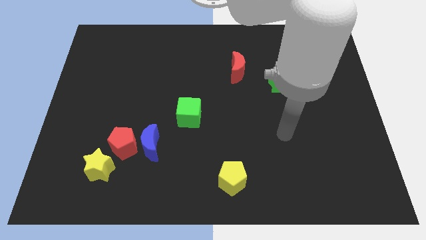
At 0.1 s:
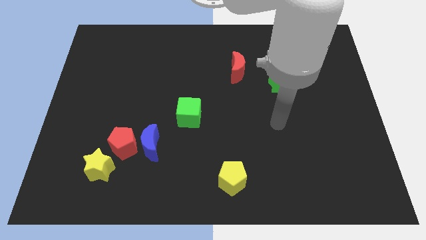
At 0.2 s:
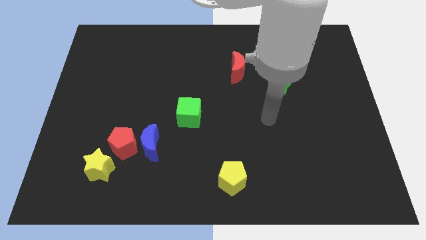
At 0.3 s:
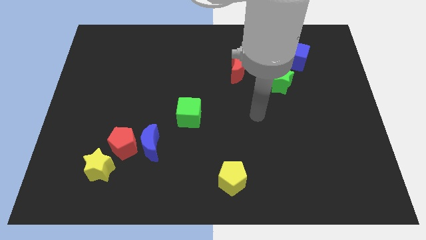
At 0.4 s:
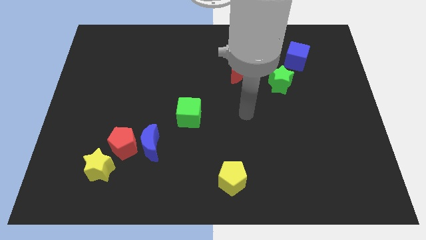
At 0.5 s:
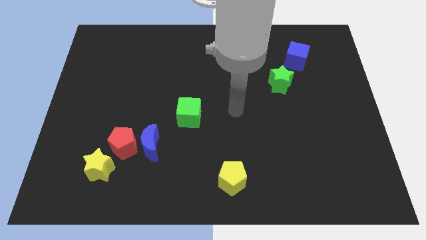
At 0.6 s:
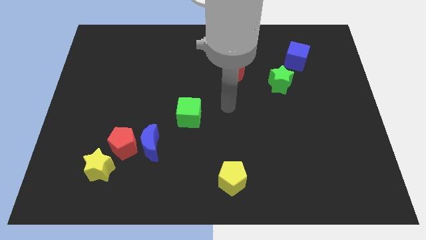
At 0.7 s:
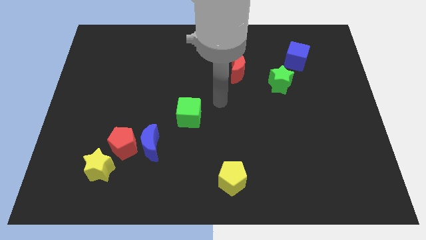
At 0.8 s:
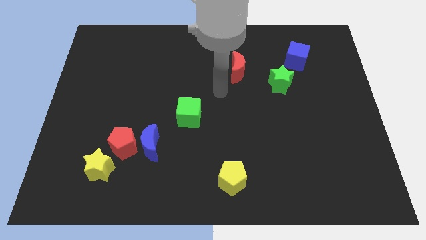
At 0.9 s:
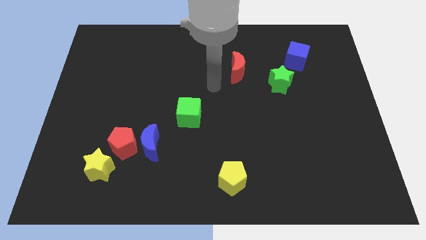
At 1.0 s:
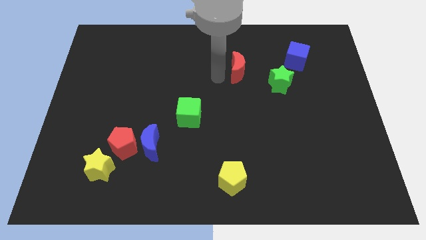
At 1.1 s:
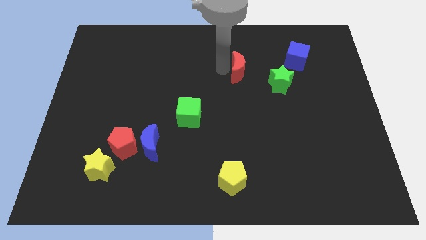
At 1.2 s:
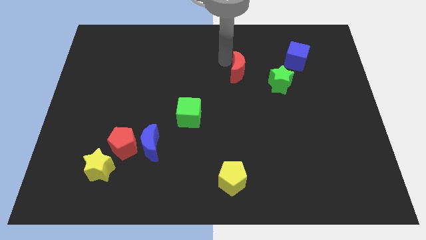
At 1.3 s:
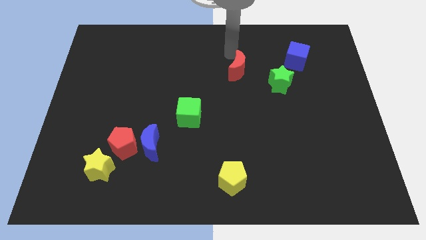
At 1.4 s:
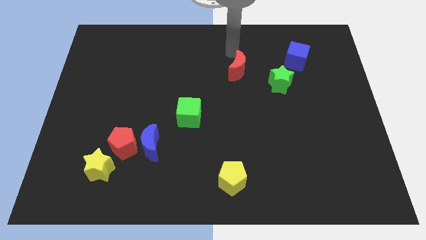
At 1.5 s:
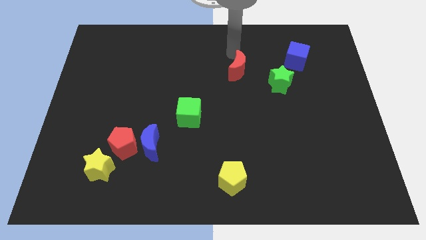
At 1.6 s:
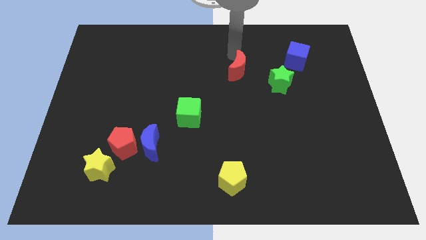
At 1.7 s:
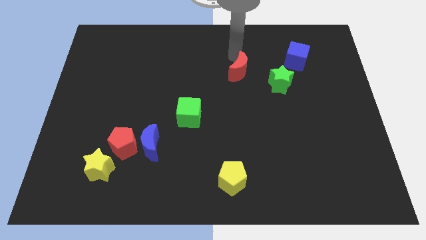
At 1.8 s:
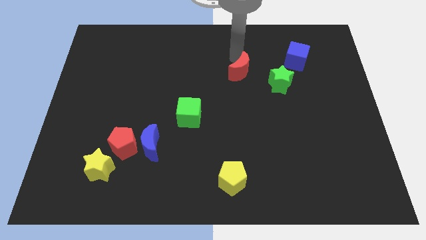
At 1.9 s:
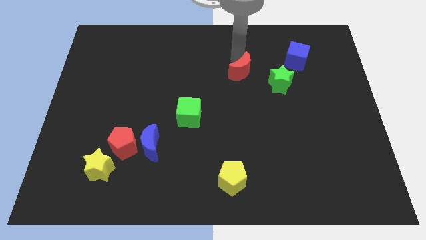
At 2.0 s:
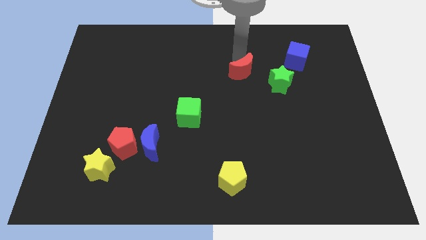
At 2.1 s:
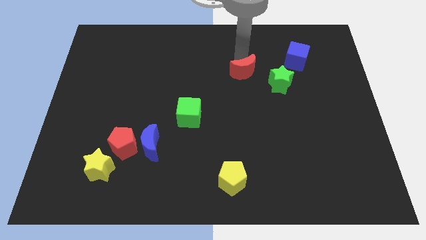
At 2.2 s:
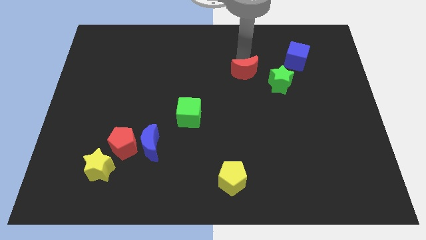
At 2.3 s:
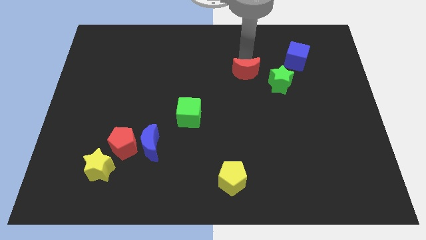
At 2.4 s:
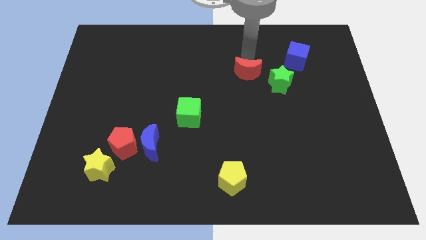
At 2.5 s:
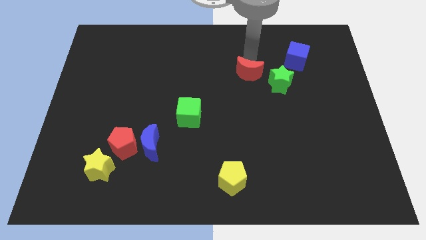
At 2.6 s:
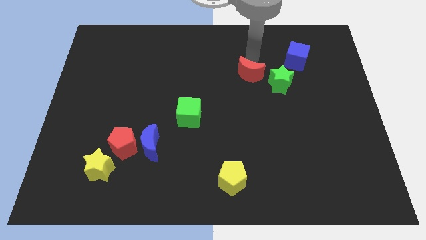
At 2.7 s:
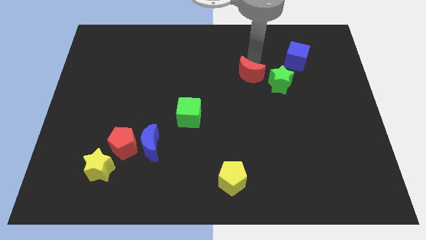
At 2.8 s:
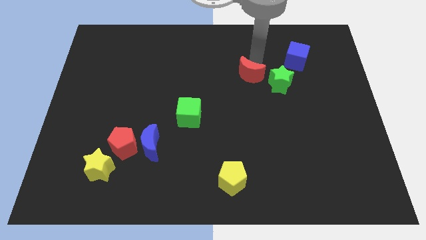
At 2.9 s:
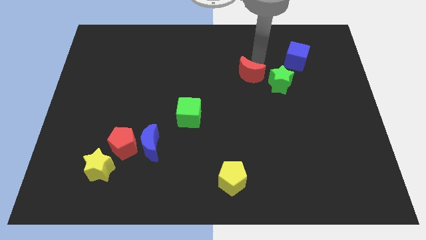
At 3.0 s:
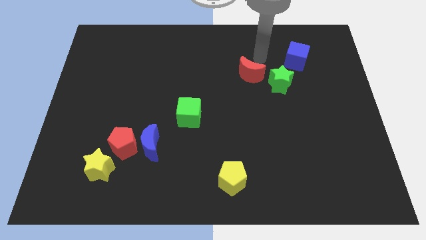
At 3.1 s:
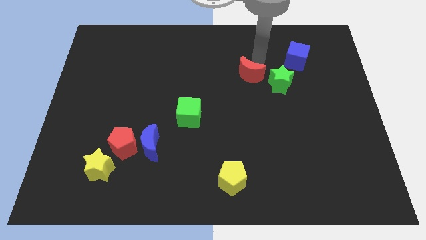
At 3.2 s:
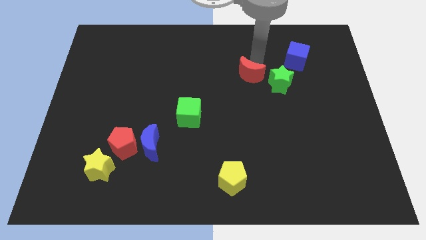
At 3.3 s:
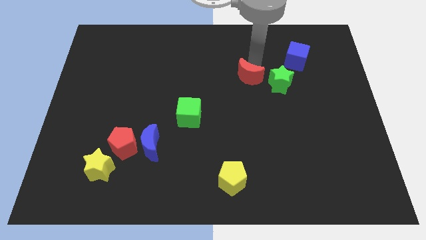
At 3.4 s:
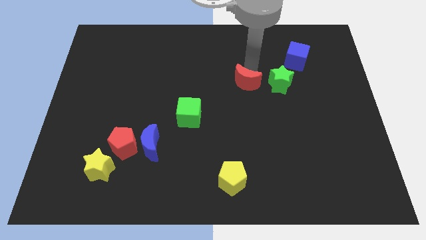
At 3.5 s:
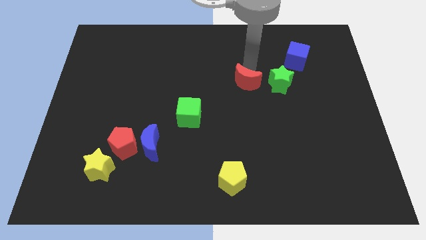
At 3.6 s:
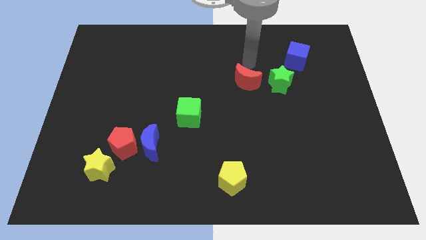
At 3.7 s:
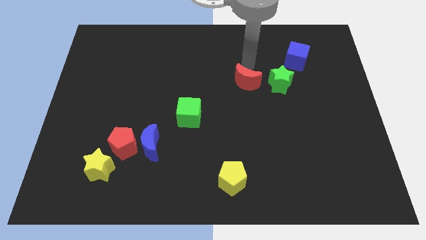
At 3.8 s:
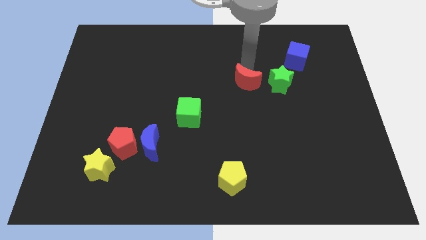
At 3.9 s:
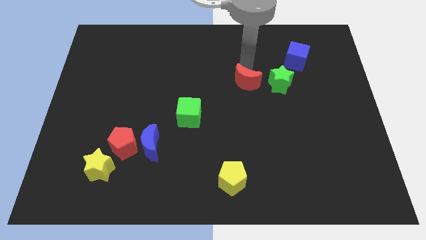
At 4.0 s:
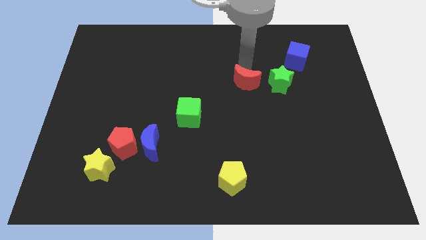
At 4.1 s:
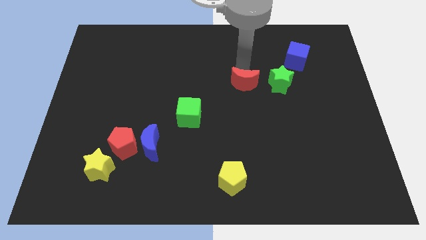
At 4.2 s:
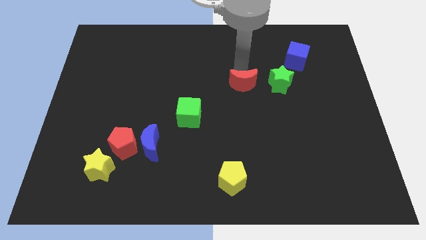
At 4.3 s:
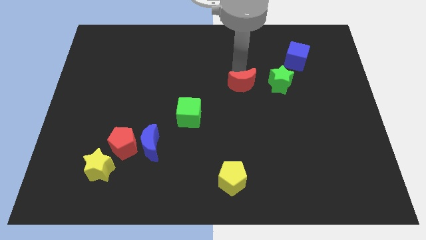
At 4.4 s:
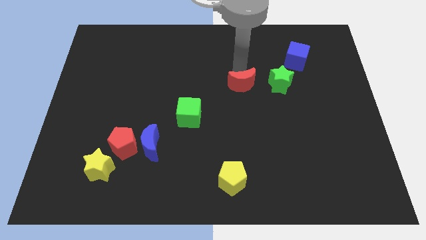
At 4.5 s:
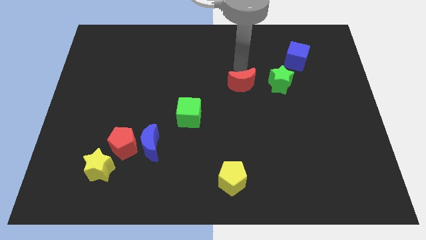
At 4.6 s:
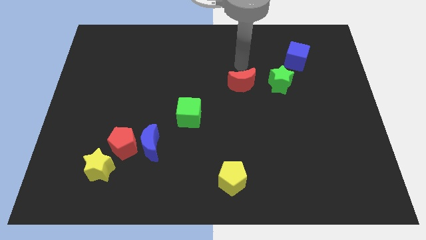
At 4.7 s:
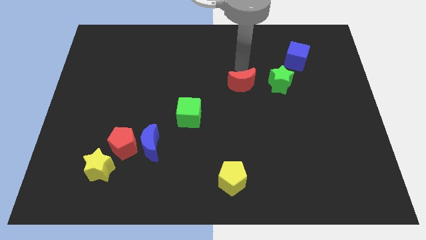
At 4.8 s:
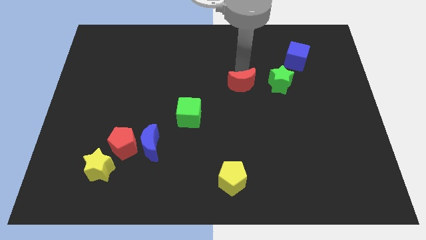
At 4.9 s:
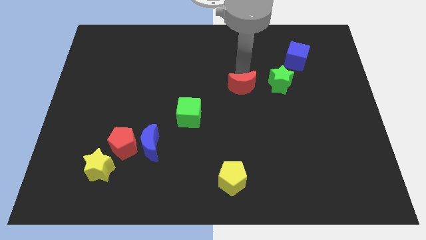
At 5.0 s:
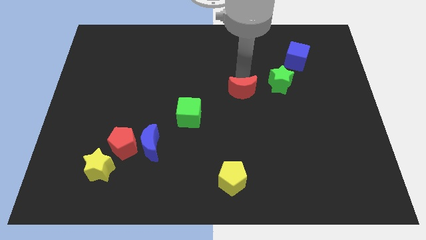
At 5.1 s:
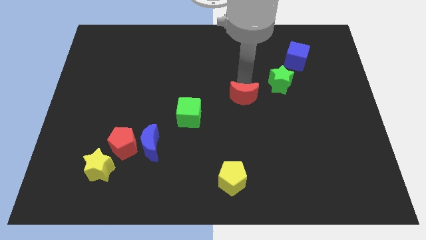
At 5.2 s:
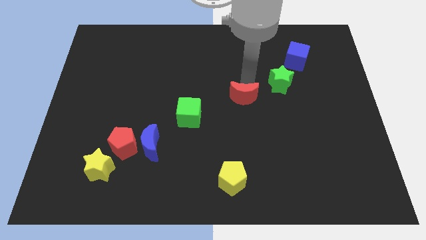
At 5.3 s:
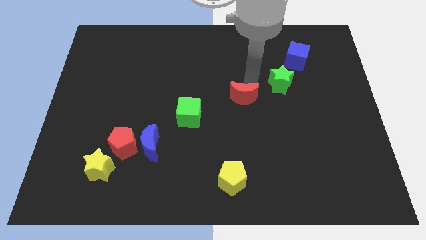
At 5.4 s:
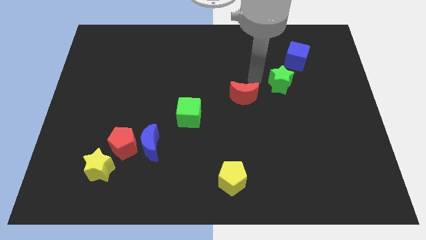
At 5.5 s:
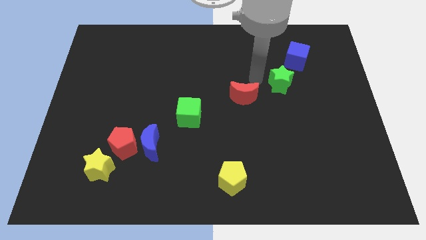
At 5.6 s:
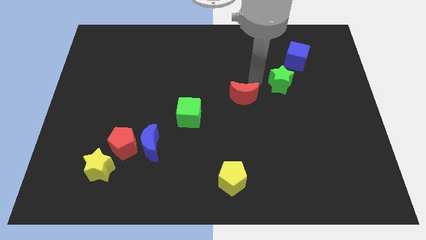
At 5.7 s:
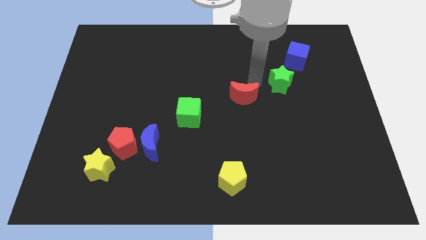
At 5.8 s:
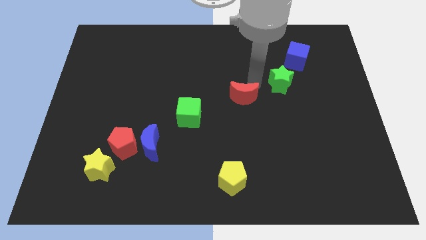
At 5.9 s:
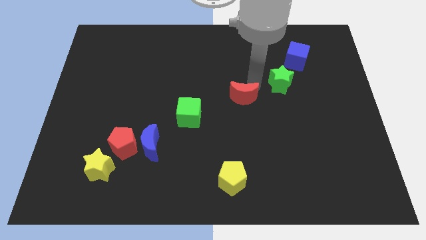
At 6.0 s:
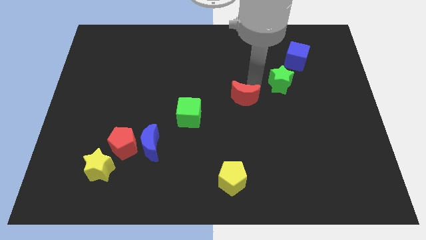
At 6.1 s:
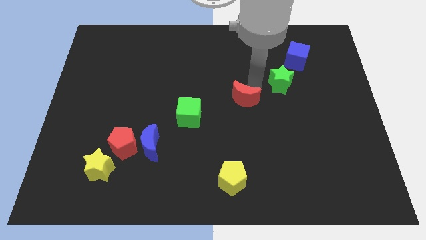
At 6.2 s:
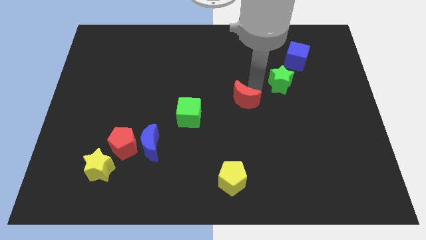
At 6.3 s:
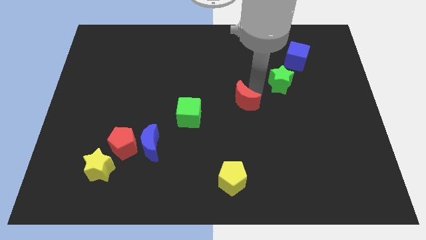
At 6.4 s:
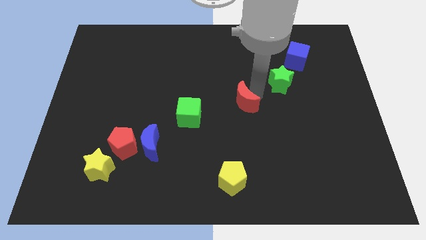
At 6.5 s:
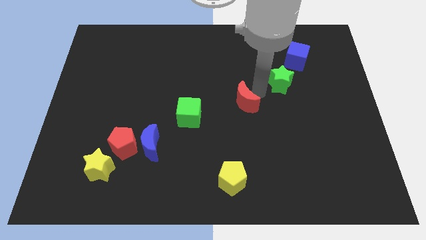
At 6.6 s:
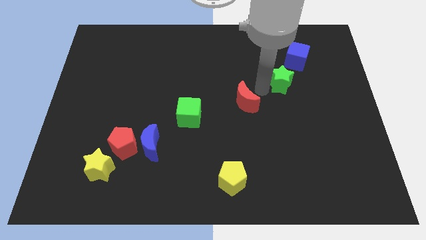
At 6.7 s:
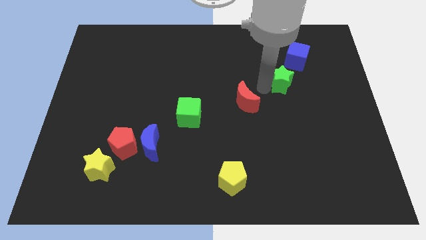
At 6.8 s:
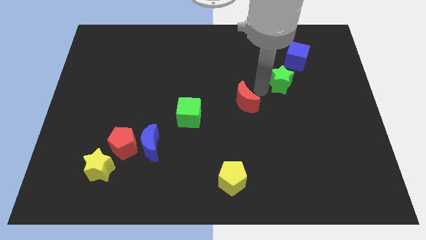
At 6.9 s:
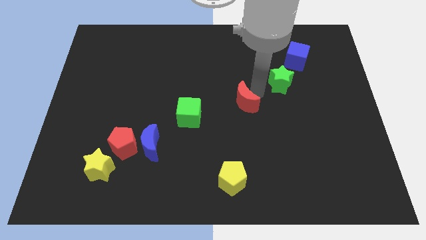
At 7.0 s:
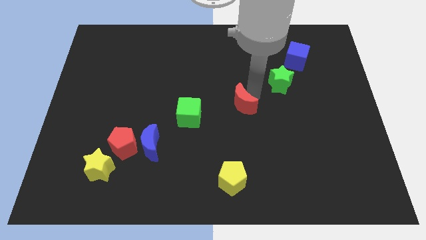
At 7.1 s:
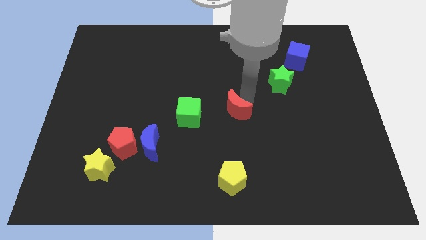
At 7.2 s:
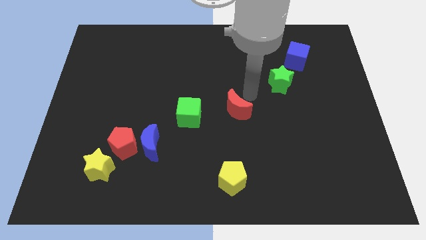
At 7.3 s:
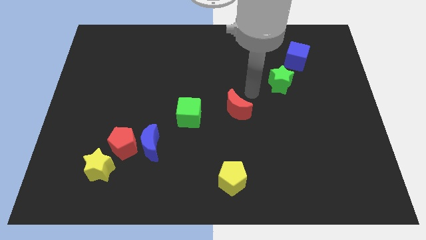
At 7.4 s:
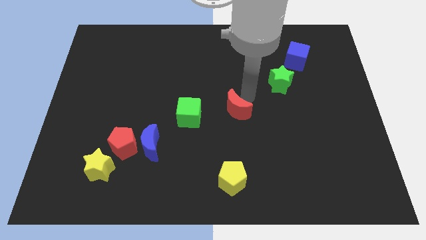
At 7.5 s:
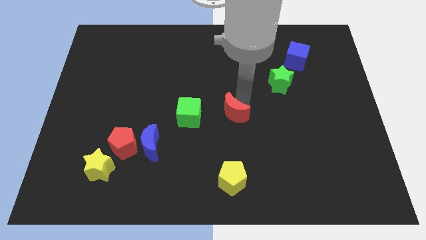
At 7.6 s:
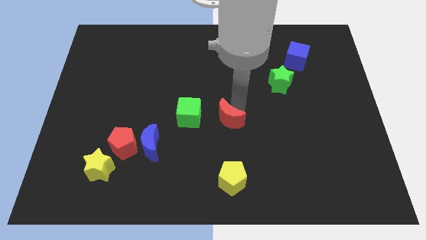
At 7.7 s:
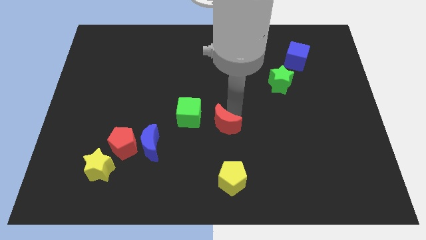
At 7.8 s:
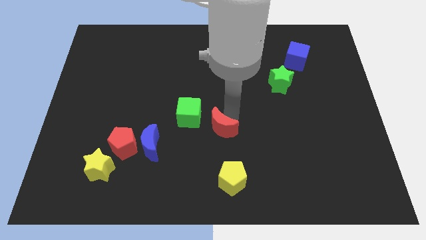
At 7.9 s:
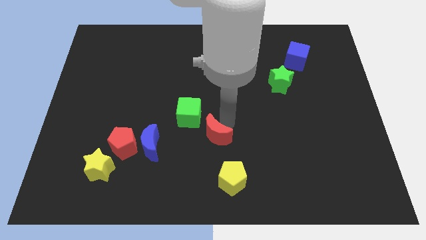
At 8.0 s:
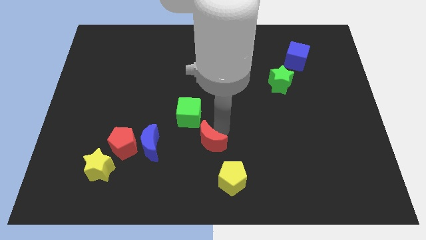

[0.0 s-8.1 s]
put the red moon below the green cube
